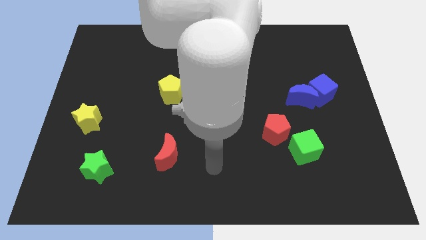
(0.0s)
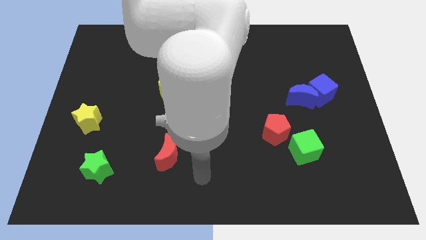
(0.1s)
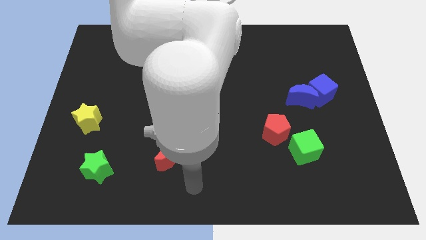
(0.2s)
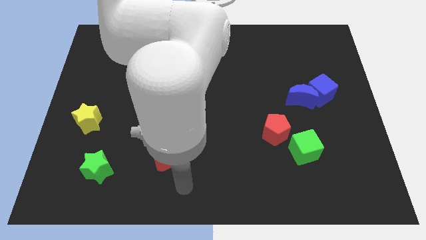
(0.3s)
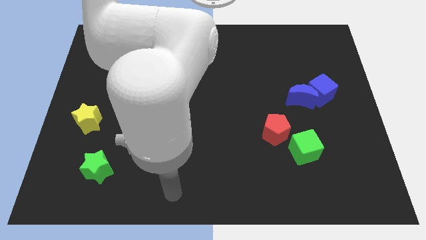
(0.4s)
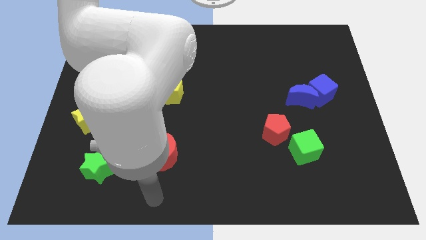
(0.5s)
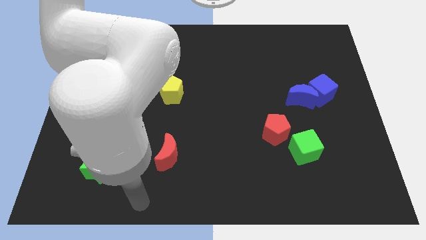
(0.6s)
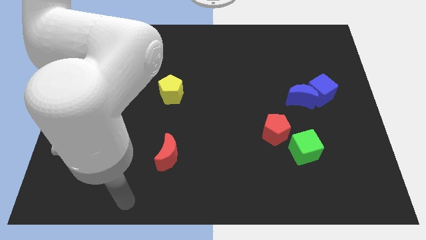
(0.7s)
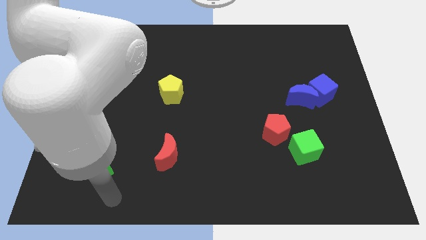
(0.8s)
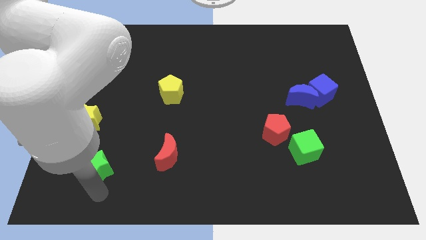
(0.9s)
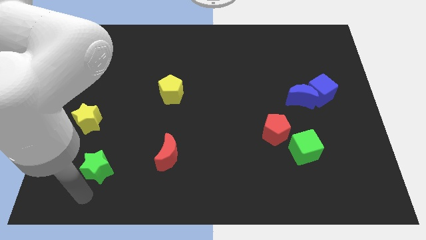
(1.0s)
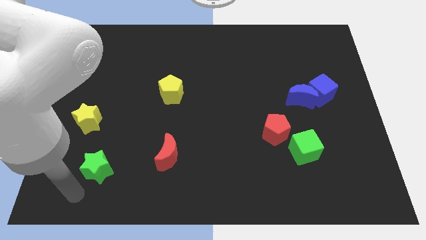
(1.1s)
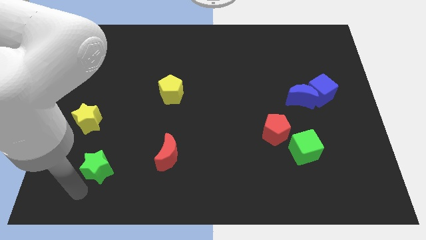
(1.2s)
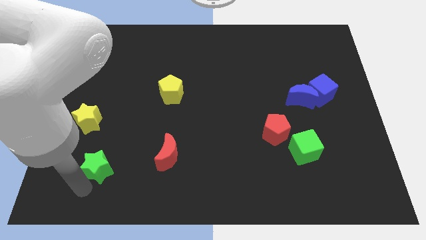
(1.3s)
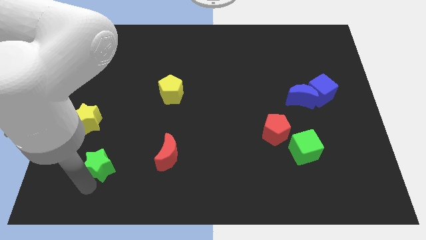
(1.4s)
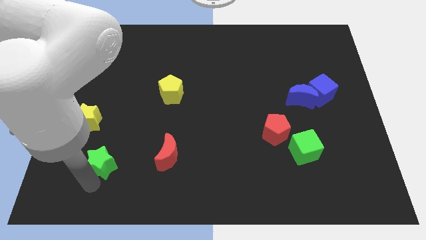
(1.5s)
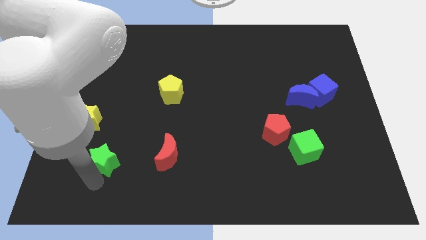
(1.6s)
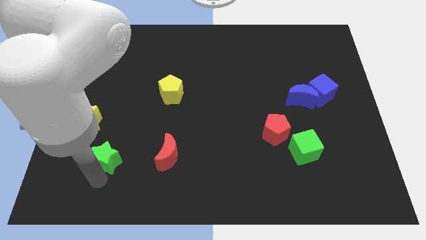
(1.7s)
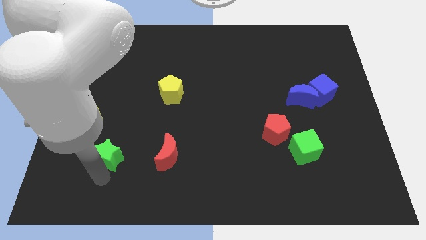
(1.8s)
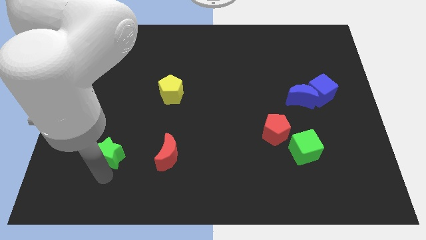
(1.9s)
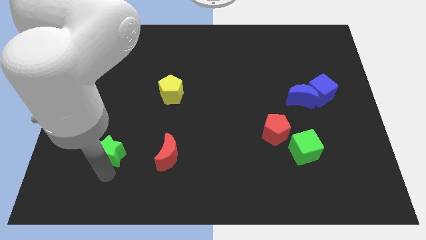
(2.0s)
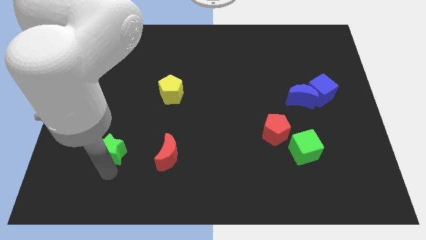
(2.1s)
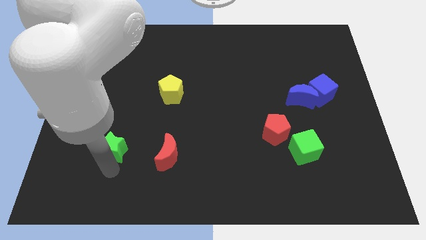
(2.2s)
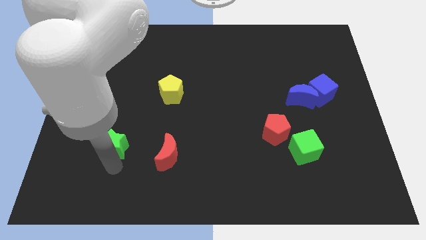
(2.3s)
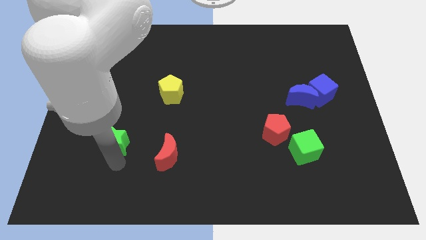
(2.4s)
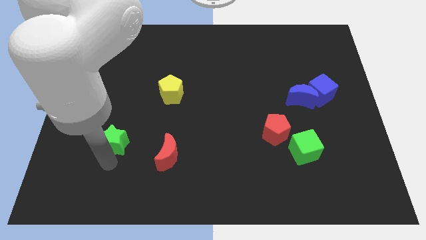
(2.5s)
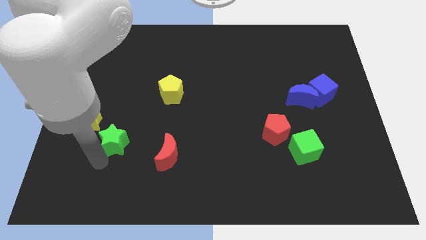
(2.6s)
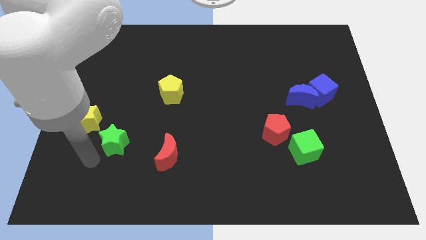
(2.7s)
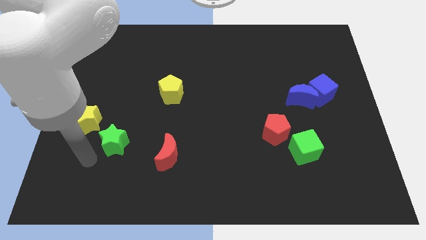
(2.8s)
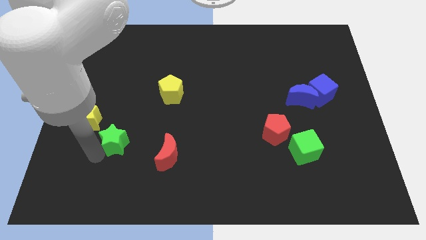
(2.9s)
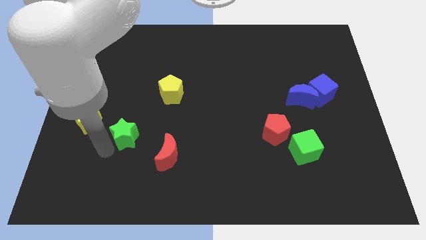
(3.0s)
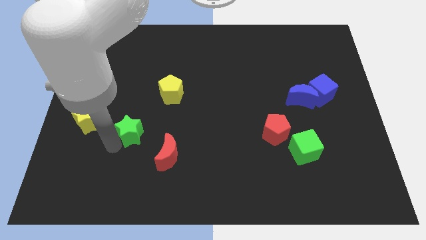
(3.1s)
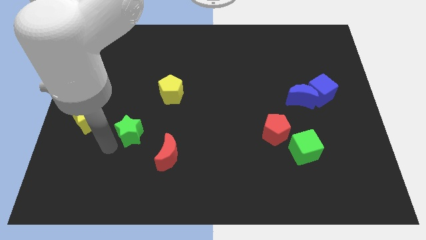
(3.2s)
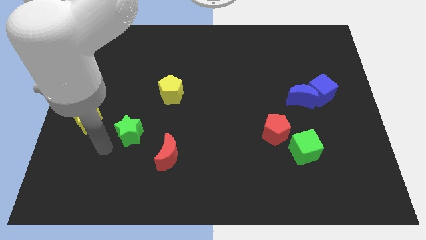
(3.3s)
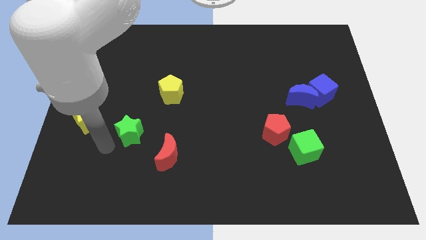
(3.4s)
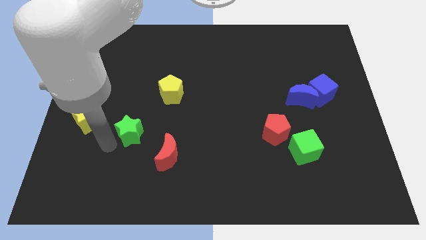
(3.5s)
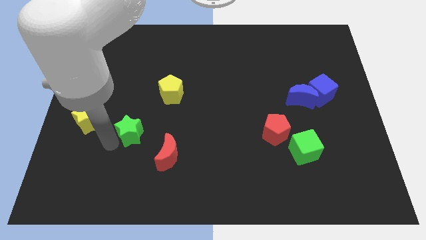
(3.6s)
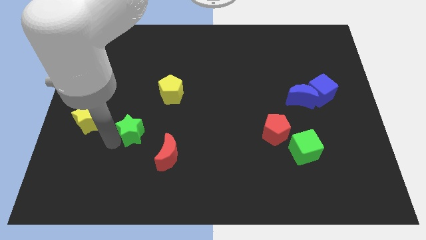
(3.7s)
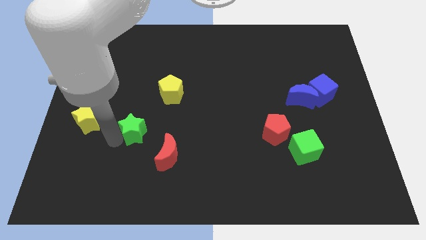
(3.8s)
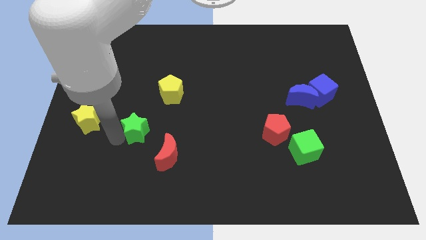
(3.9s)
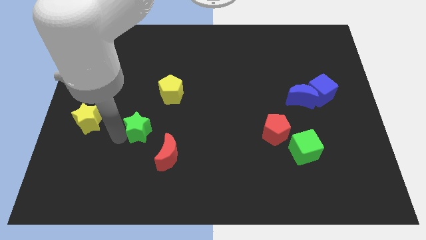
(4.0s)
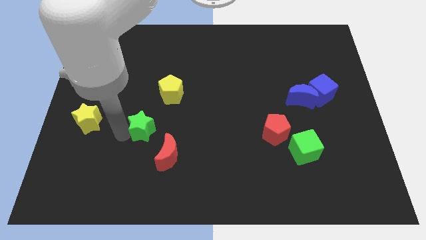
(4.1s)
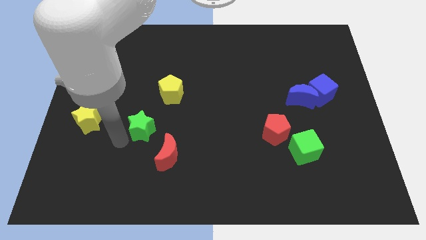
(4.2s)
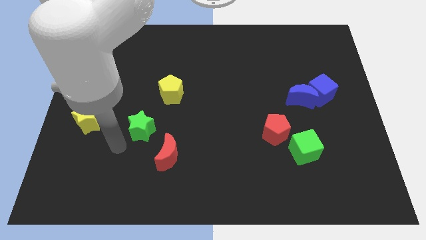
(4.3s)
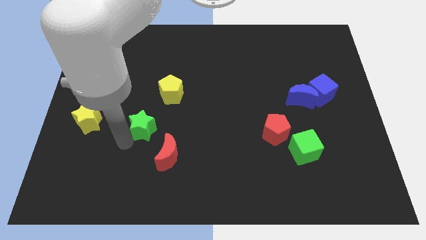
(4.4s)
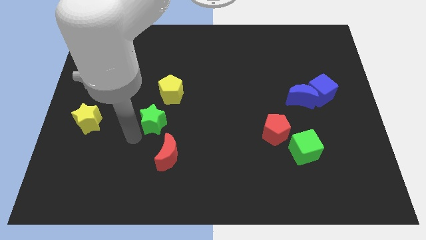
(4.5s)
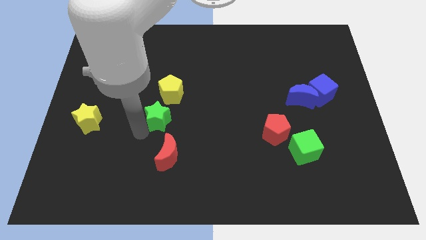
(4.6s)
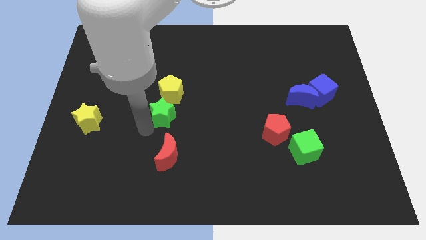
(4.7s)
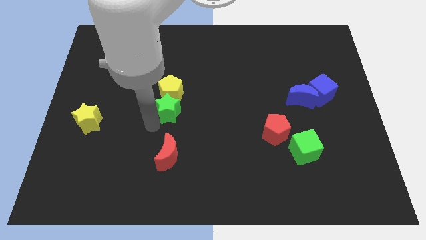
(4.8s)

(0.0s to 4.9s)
move the green star upwards and then to the right

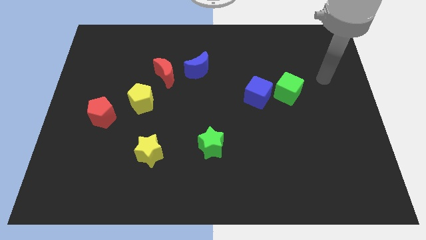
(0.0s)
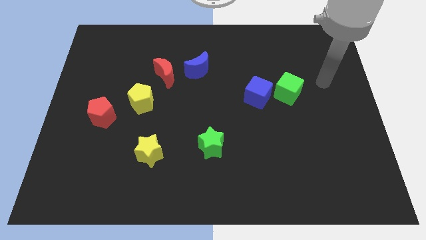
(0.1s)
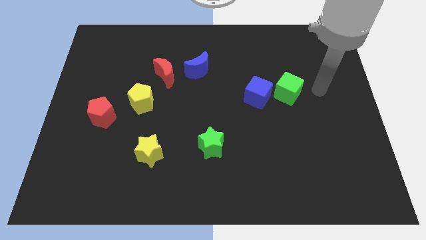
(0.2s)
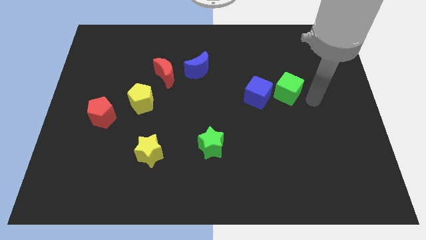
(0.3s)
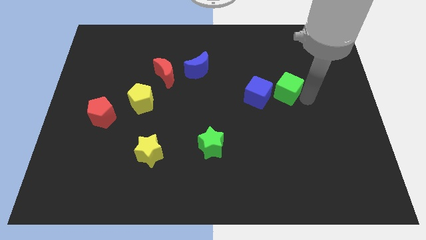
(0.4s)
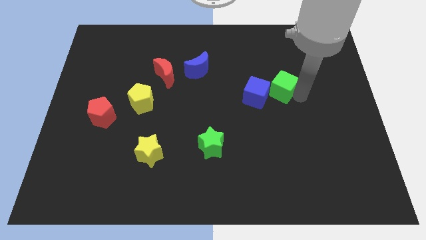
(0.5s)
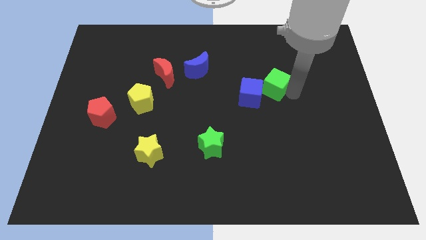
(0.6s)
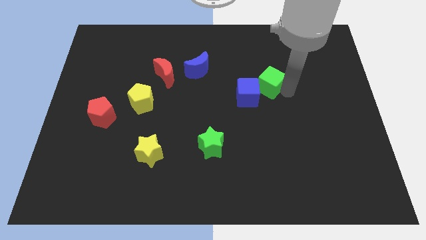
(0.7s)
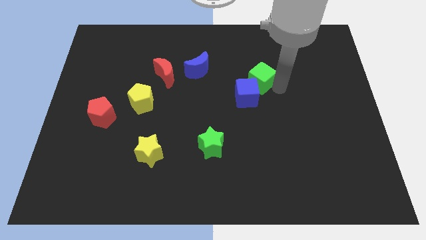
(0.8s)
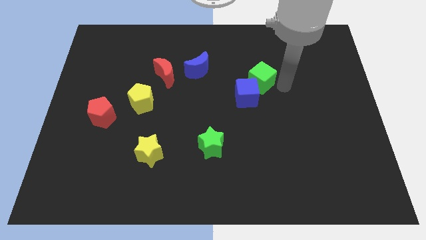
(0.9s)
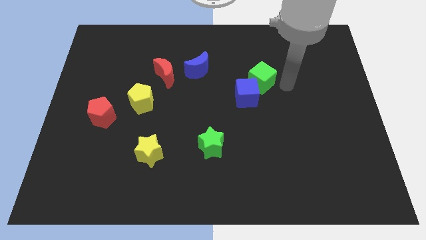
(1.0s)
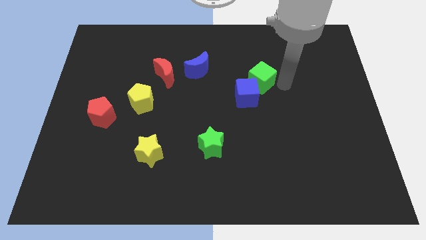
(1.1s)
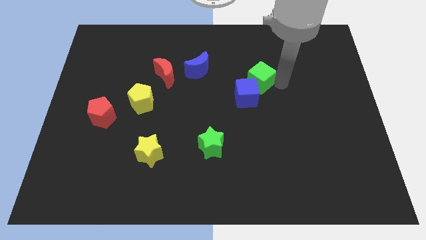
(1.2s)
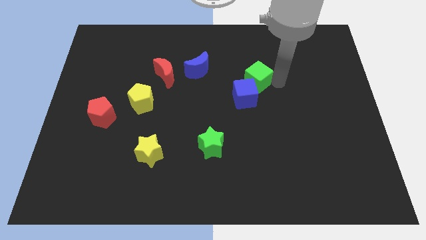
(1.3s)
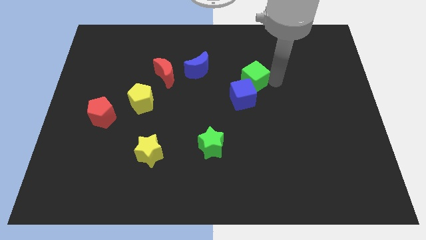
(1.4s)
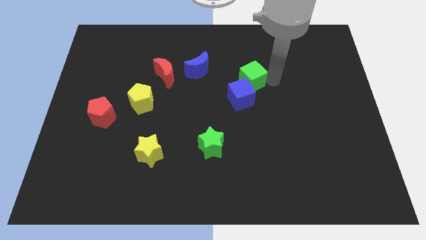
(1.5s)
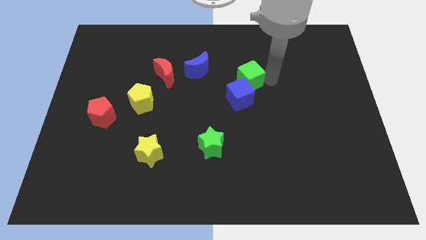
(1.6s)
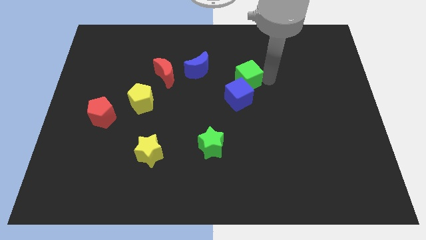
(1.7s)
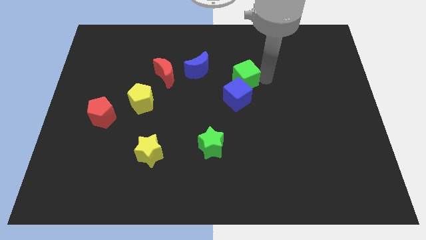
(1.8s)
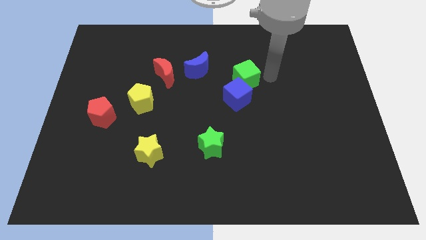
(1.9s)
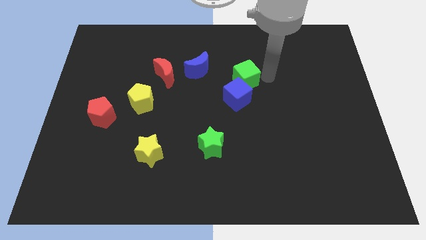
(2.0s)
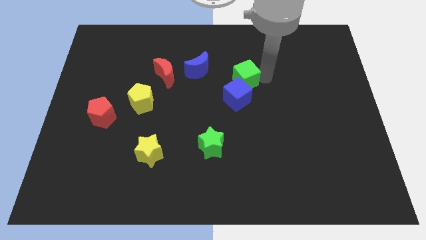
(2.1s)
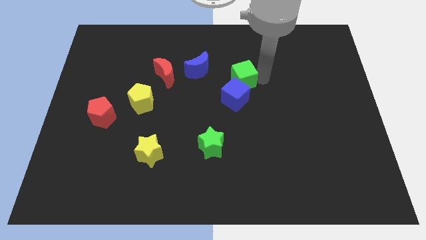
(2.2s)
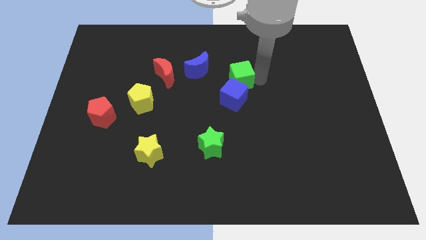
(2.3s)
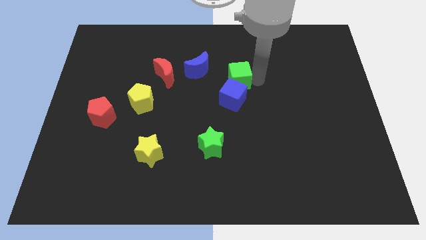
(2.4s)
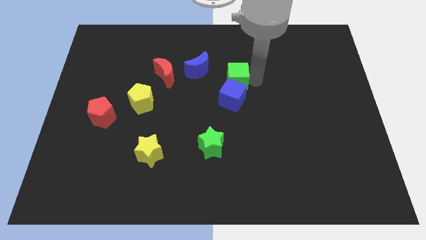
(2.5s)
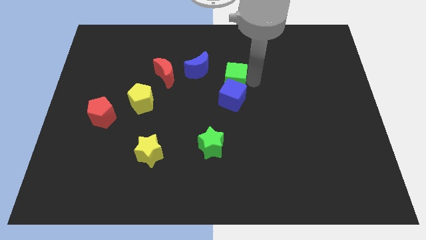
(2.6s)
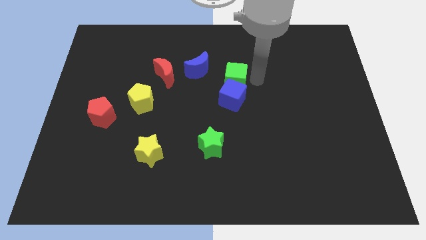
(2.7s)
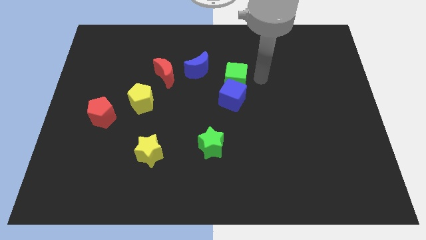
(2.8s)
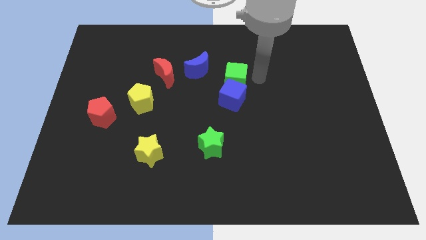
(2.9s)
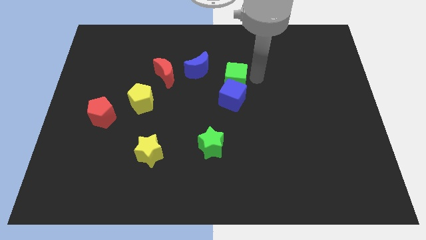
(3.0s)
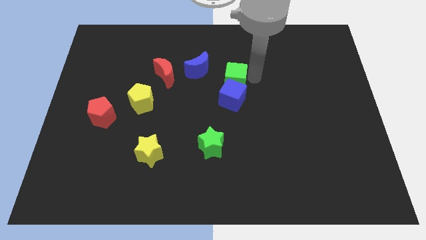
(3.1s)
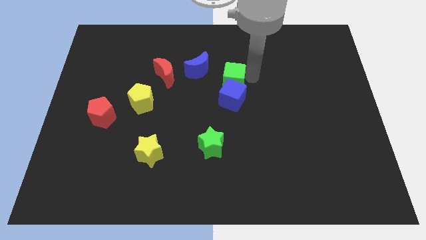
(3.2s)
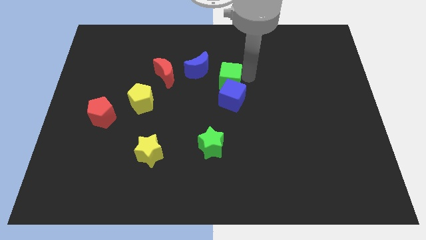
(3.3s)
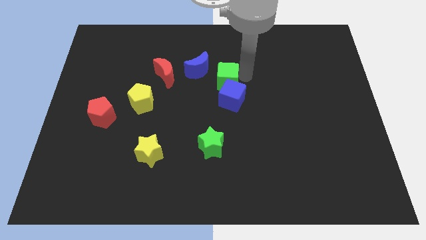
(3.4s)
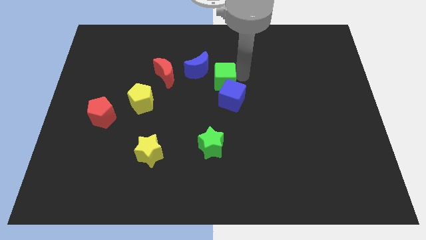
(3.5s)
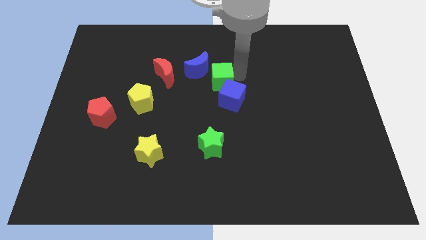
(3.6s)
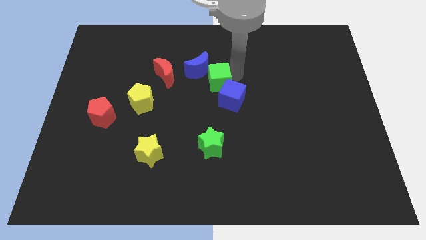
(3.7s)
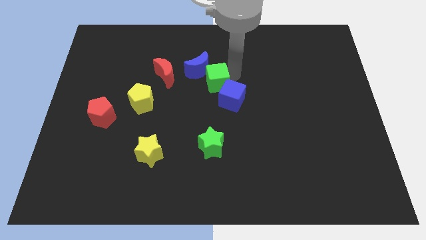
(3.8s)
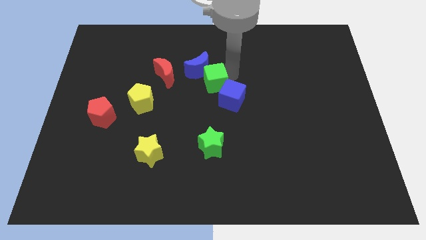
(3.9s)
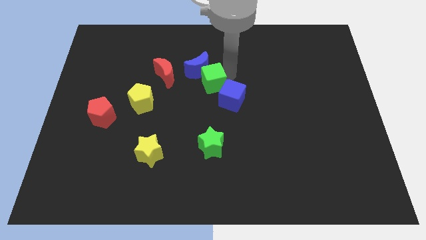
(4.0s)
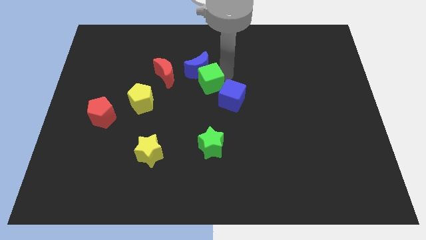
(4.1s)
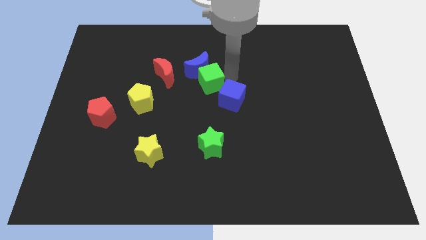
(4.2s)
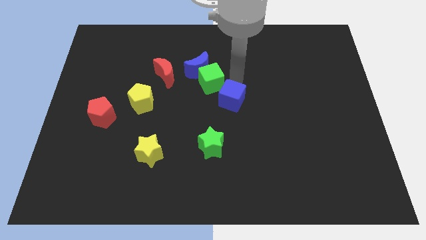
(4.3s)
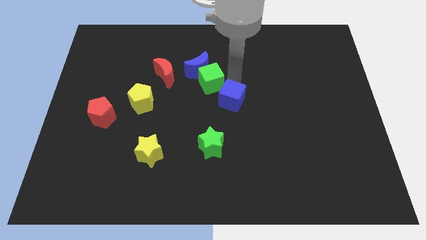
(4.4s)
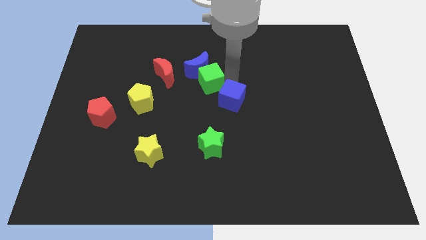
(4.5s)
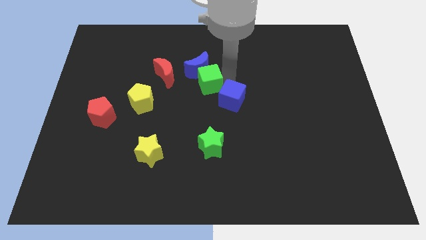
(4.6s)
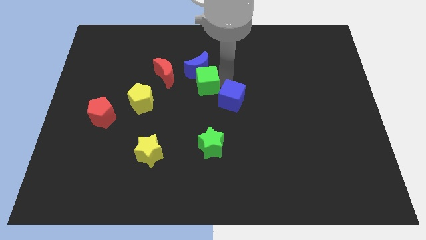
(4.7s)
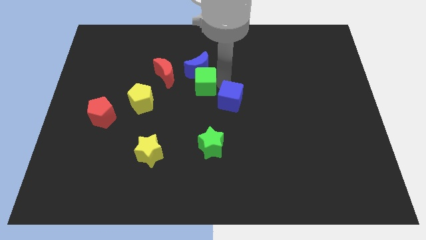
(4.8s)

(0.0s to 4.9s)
move the green cube to the left
